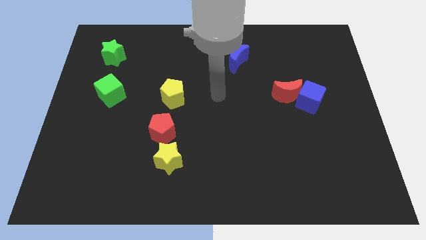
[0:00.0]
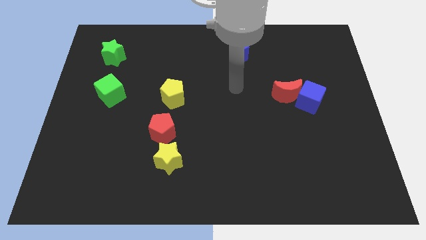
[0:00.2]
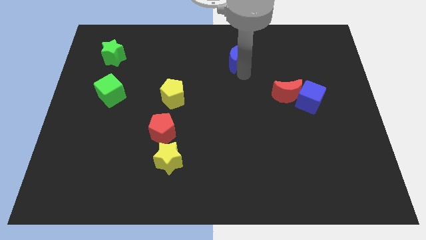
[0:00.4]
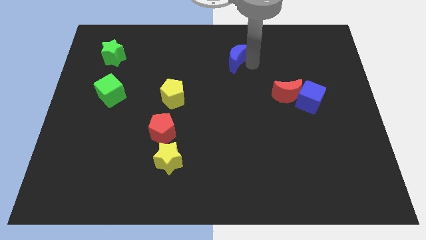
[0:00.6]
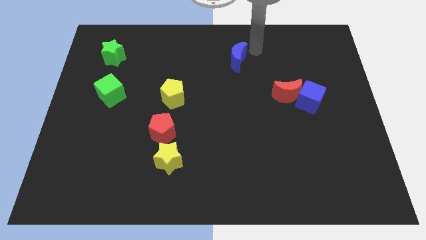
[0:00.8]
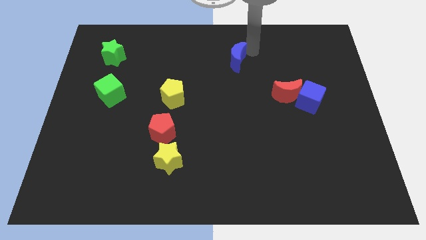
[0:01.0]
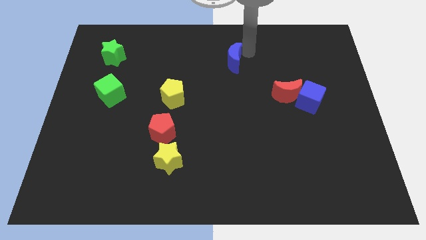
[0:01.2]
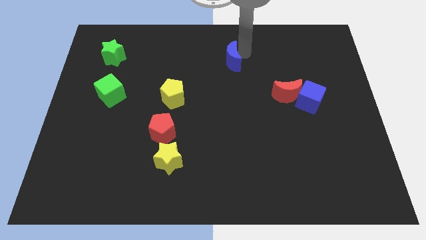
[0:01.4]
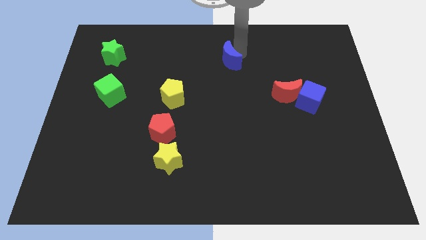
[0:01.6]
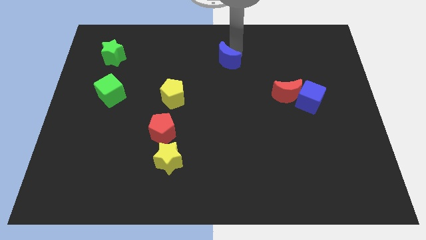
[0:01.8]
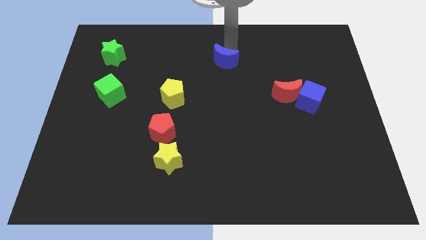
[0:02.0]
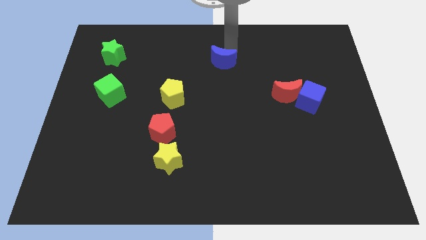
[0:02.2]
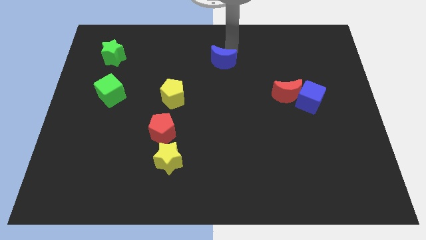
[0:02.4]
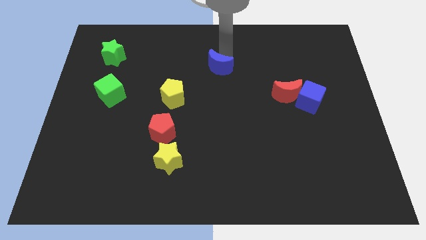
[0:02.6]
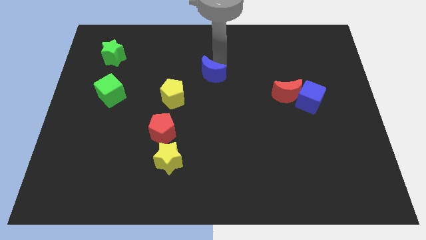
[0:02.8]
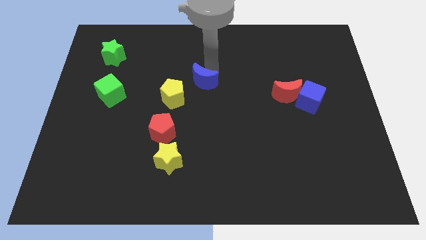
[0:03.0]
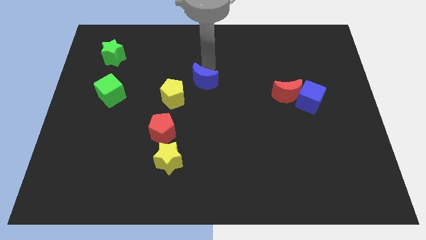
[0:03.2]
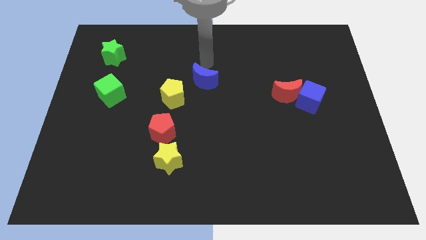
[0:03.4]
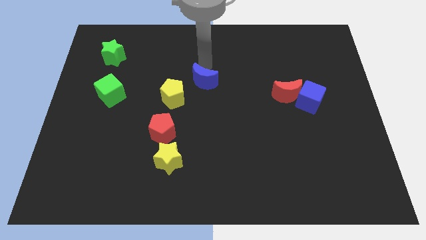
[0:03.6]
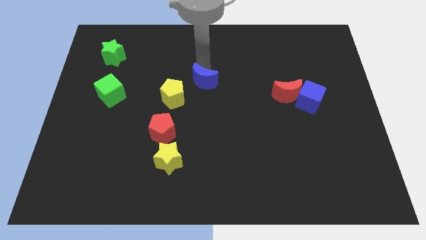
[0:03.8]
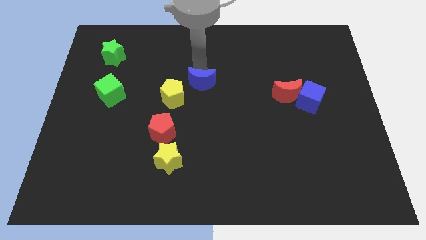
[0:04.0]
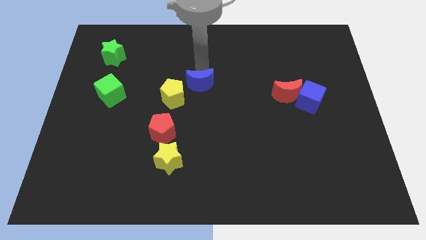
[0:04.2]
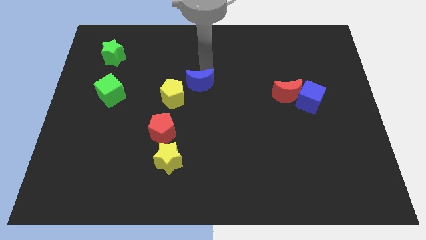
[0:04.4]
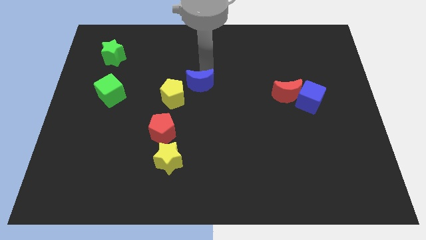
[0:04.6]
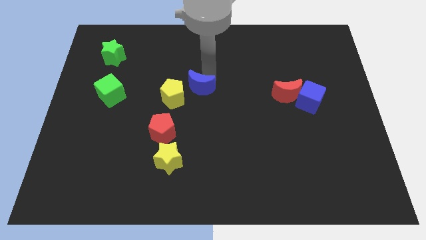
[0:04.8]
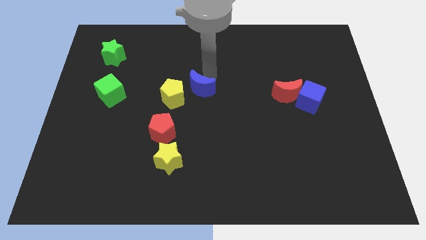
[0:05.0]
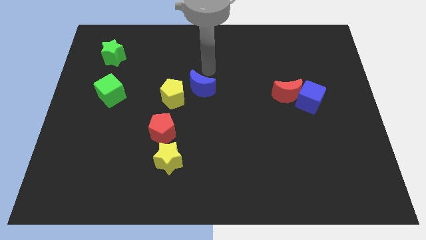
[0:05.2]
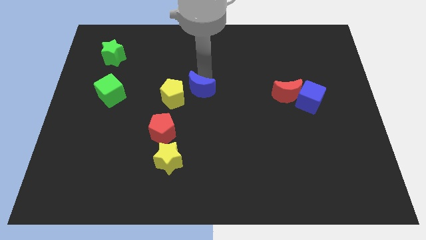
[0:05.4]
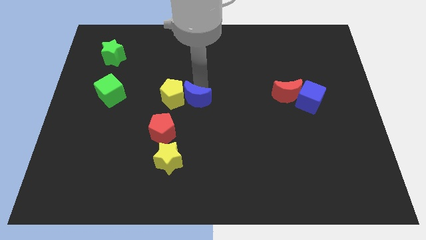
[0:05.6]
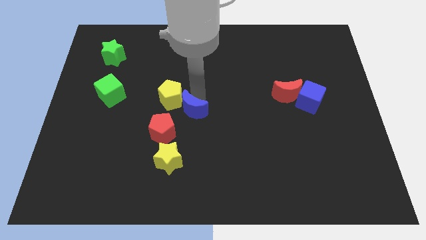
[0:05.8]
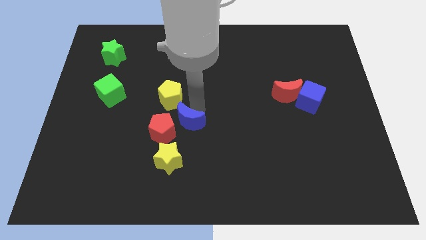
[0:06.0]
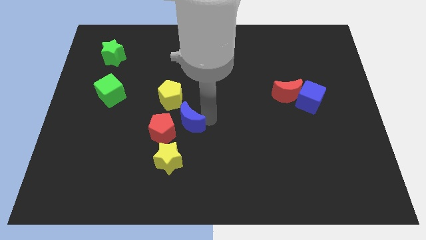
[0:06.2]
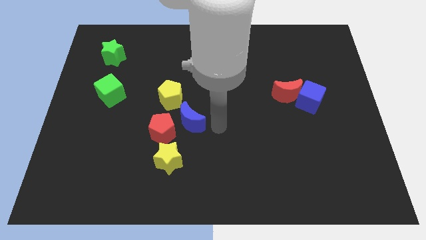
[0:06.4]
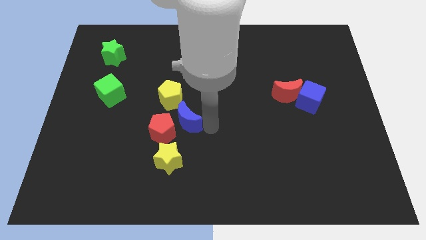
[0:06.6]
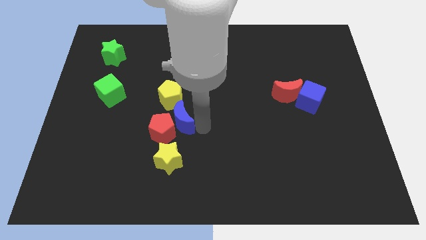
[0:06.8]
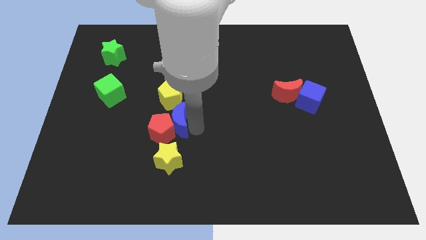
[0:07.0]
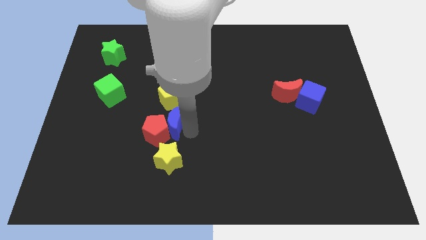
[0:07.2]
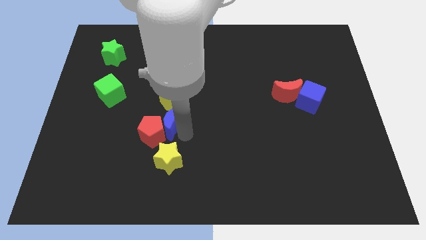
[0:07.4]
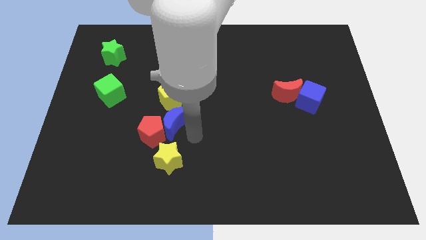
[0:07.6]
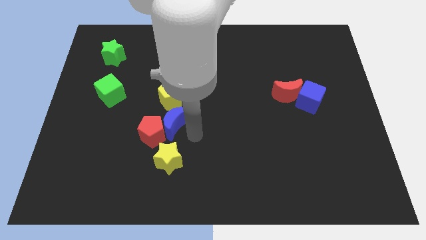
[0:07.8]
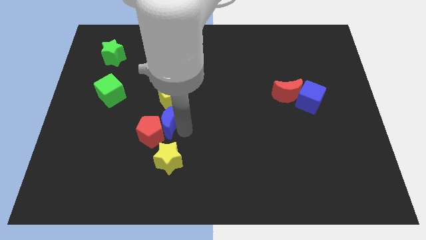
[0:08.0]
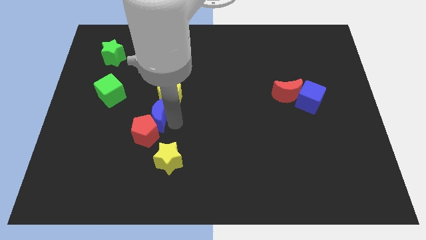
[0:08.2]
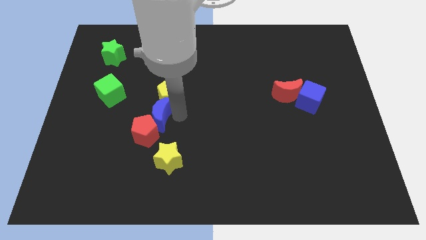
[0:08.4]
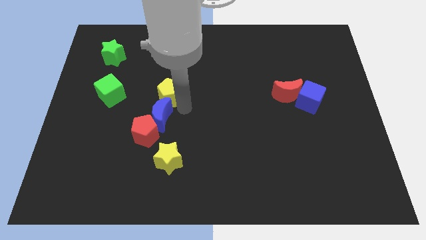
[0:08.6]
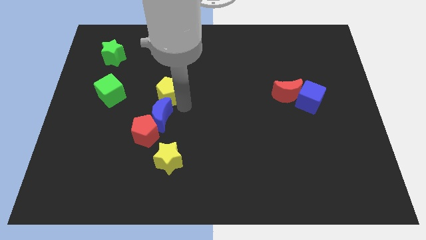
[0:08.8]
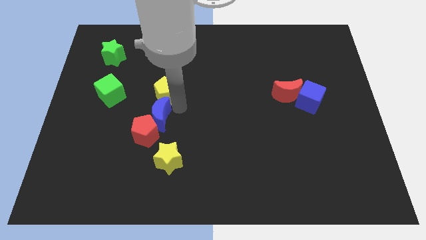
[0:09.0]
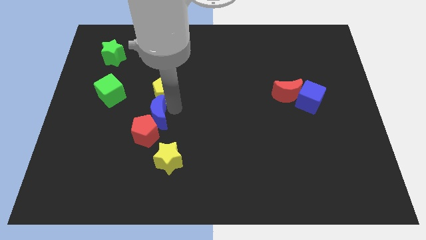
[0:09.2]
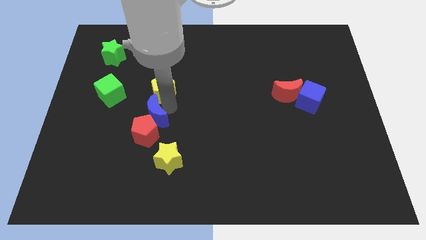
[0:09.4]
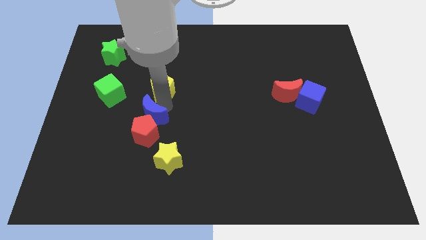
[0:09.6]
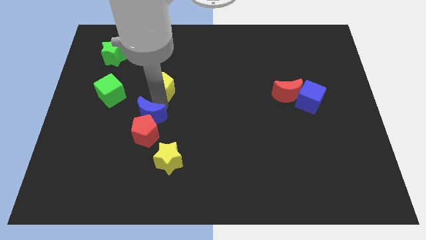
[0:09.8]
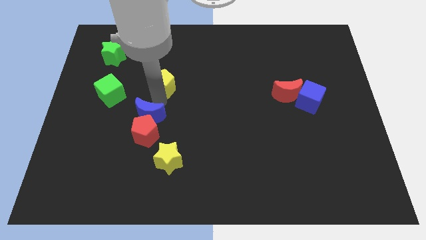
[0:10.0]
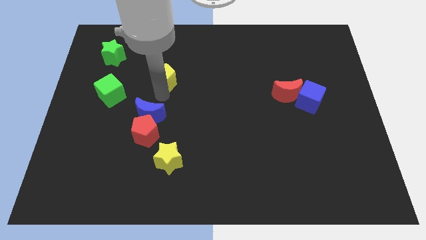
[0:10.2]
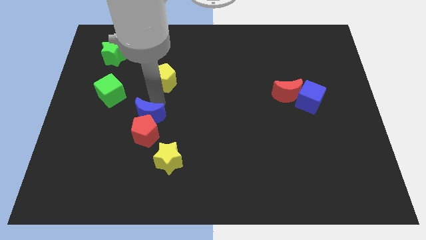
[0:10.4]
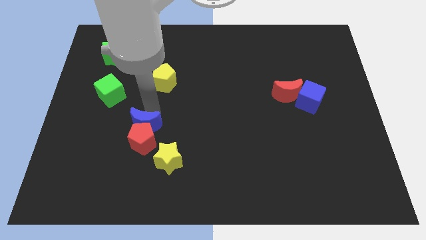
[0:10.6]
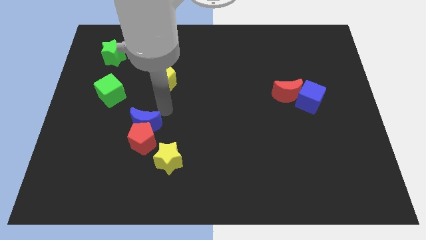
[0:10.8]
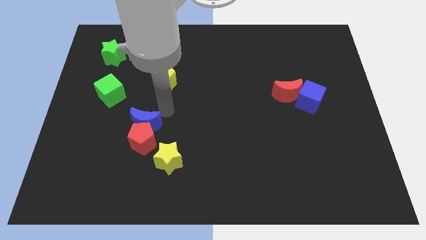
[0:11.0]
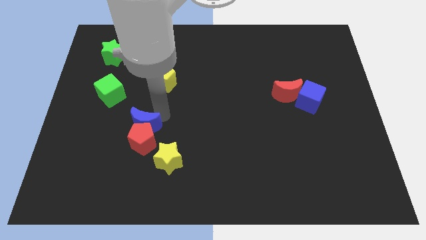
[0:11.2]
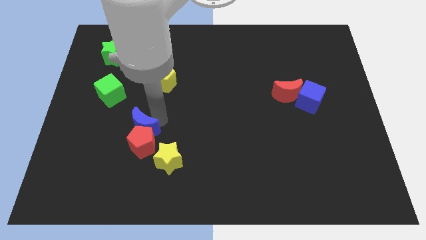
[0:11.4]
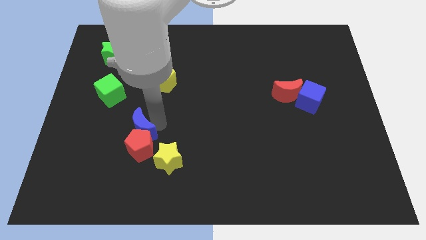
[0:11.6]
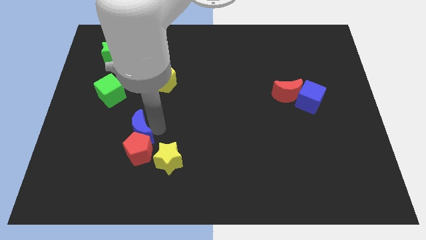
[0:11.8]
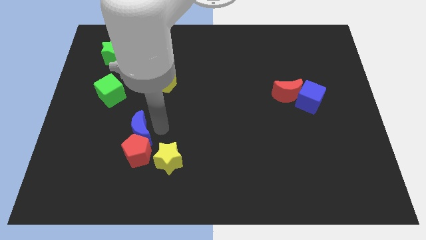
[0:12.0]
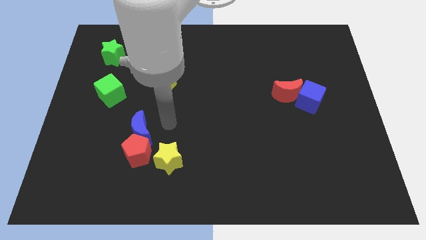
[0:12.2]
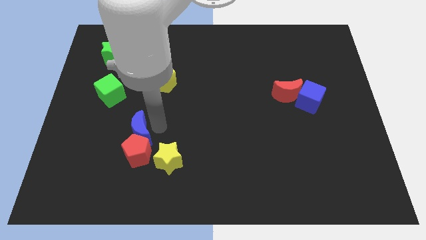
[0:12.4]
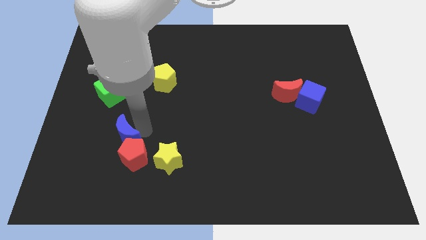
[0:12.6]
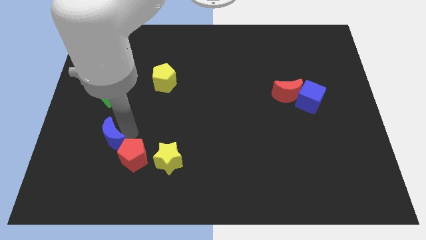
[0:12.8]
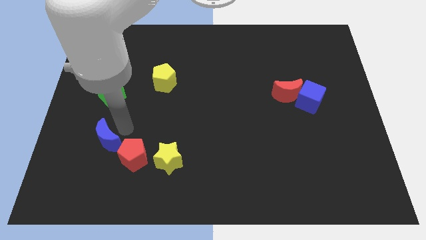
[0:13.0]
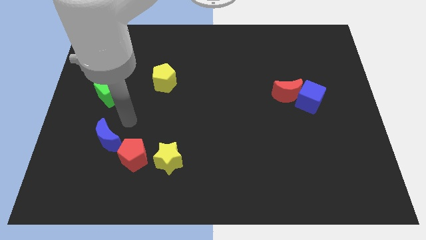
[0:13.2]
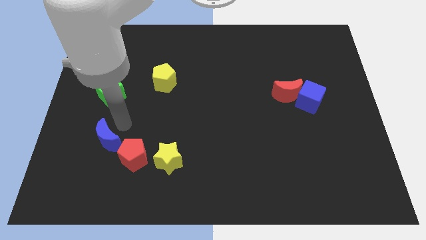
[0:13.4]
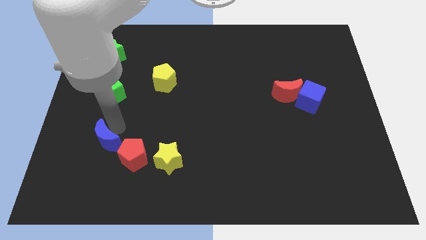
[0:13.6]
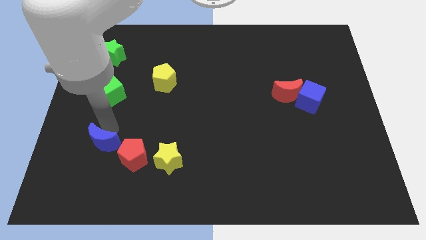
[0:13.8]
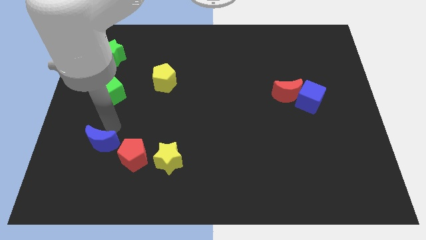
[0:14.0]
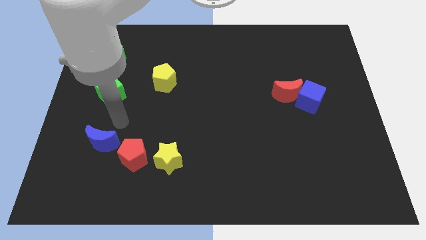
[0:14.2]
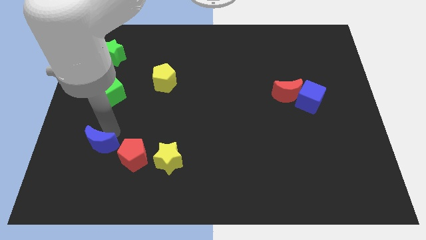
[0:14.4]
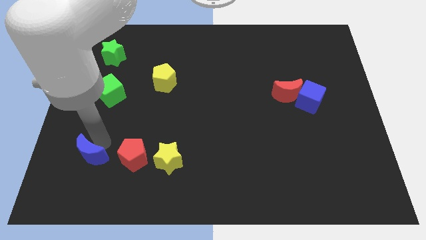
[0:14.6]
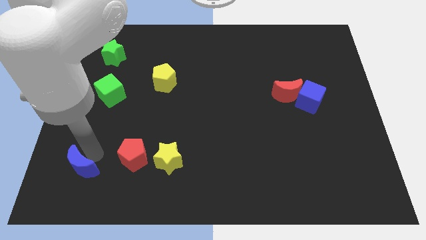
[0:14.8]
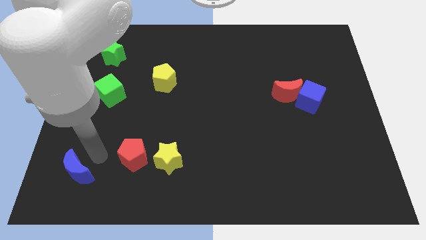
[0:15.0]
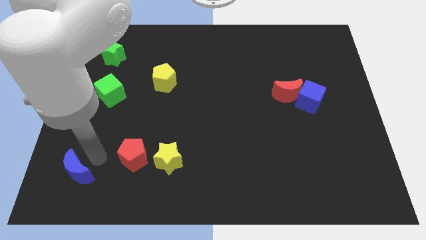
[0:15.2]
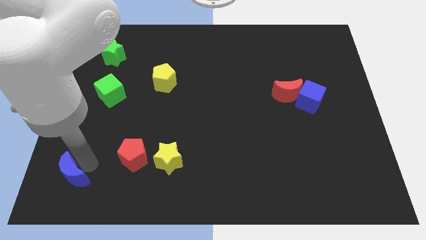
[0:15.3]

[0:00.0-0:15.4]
move the blue moon to the lower left corner
